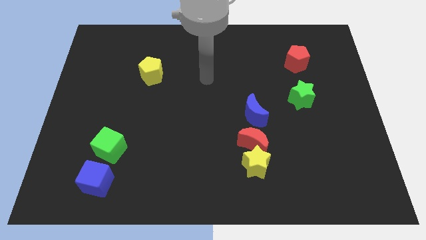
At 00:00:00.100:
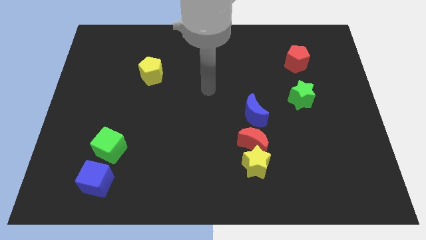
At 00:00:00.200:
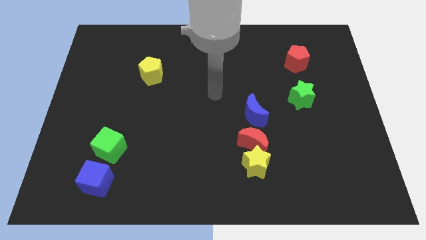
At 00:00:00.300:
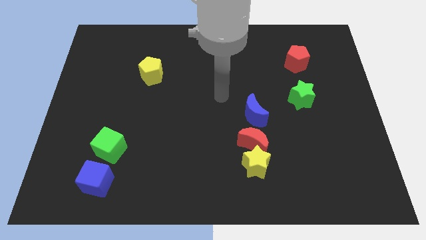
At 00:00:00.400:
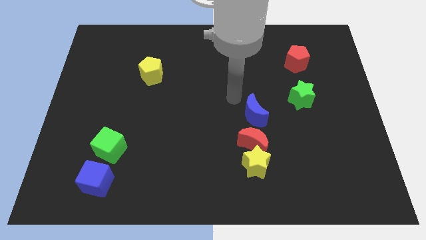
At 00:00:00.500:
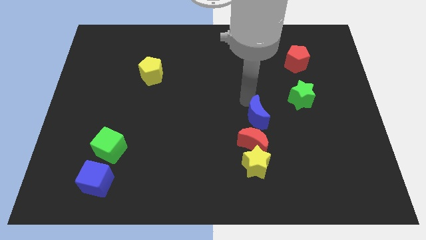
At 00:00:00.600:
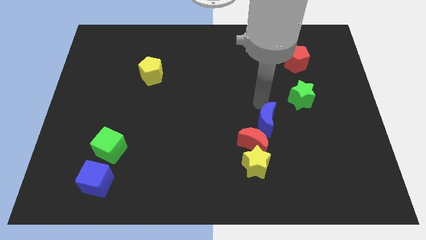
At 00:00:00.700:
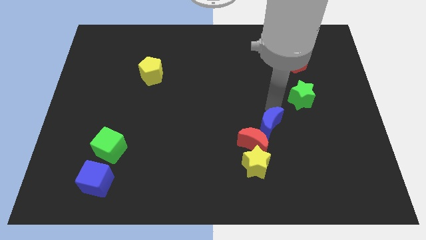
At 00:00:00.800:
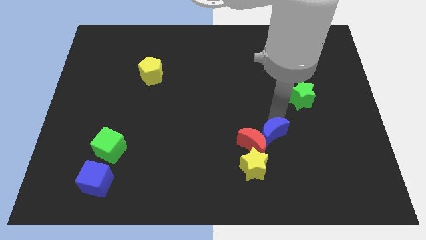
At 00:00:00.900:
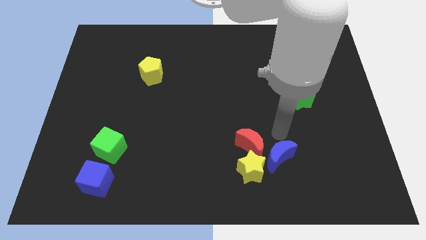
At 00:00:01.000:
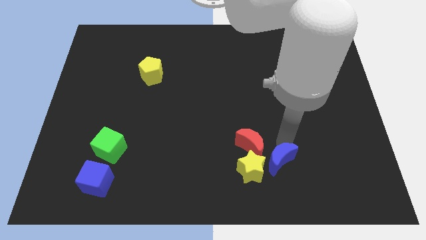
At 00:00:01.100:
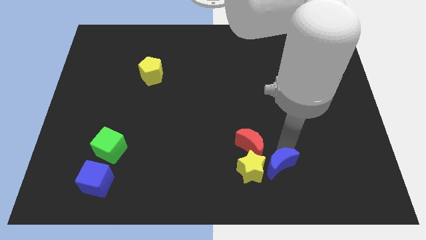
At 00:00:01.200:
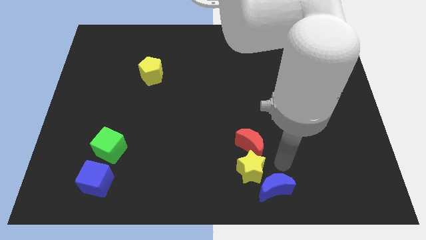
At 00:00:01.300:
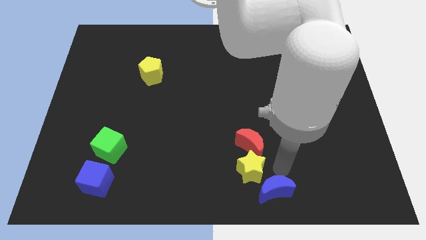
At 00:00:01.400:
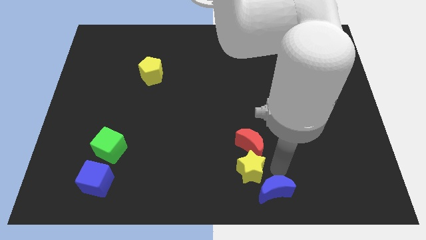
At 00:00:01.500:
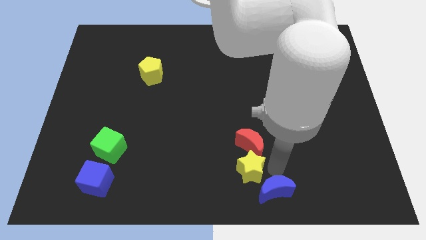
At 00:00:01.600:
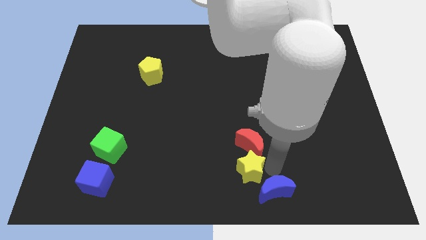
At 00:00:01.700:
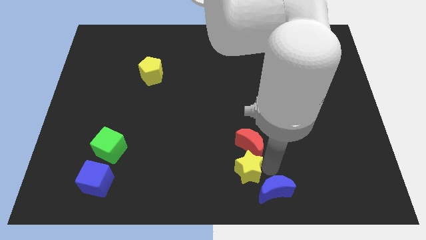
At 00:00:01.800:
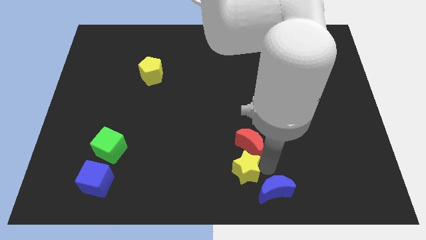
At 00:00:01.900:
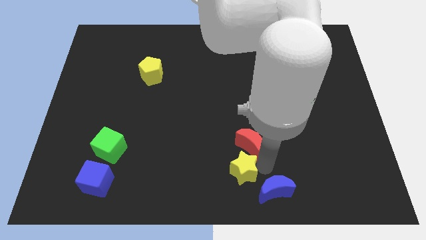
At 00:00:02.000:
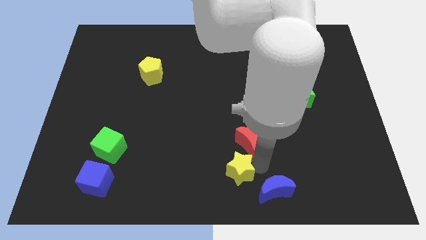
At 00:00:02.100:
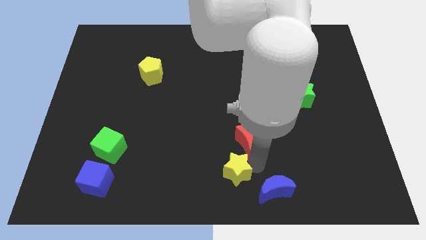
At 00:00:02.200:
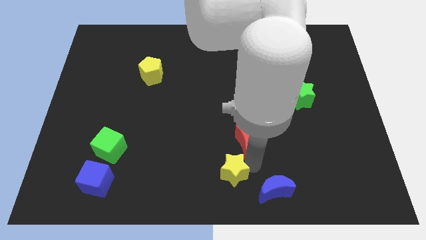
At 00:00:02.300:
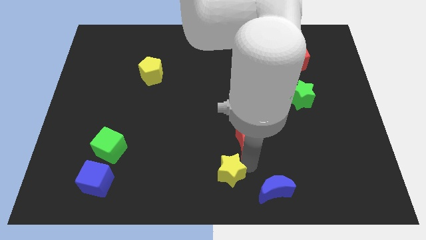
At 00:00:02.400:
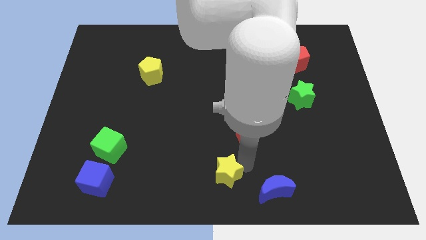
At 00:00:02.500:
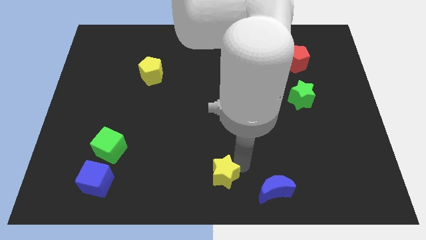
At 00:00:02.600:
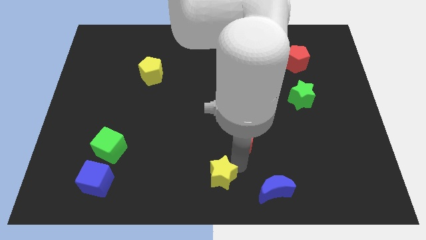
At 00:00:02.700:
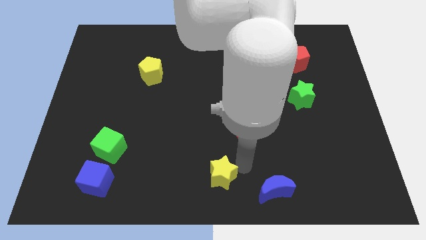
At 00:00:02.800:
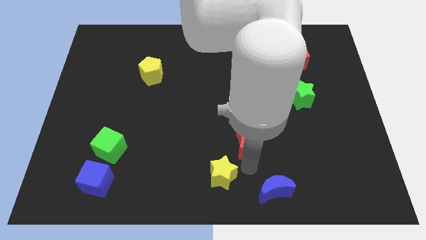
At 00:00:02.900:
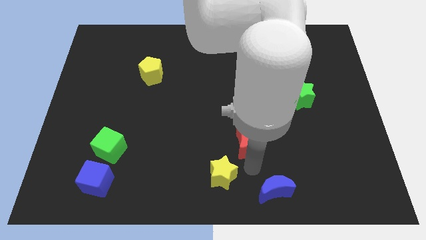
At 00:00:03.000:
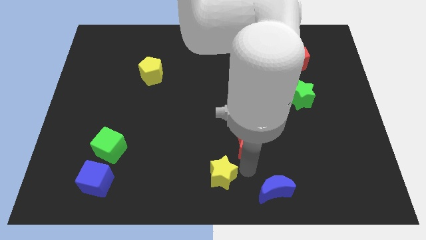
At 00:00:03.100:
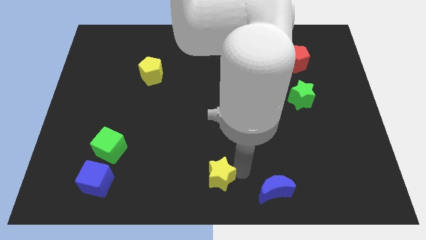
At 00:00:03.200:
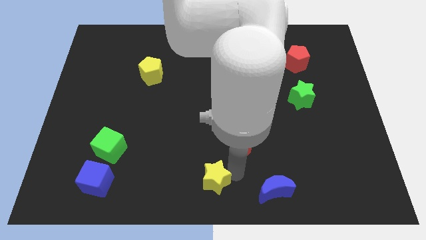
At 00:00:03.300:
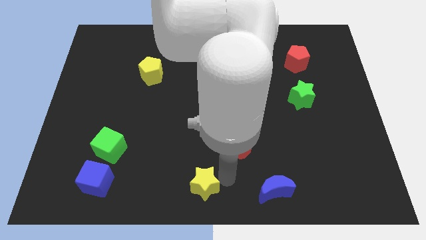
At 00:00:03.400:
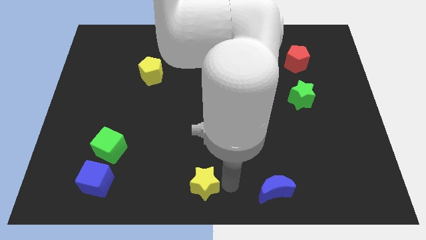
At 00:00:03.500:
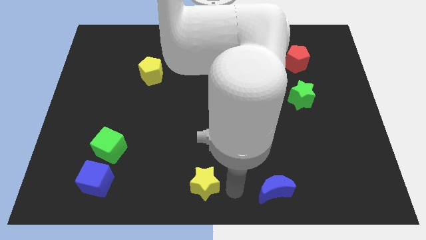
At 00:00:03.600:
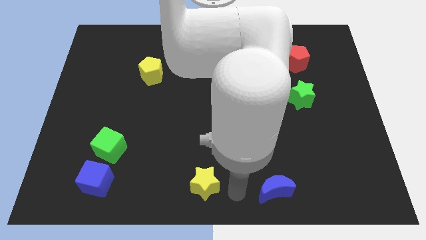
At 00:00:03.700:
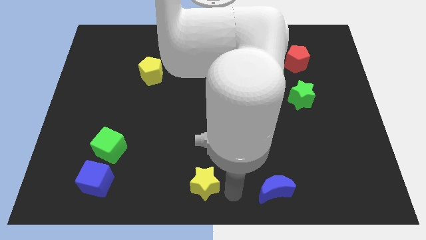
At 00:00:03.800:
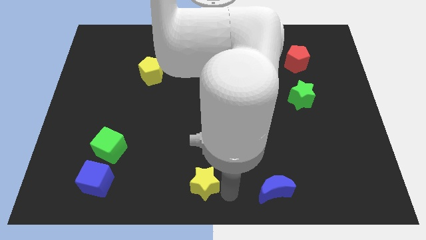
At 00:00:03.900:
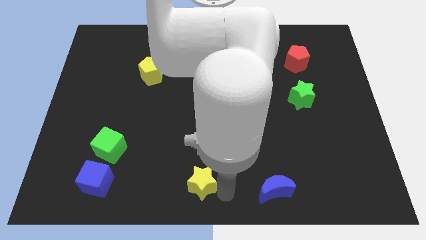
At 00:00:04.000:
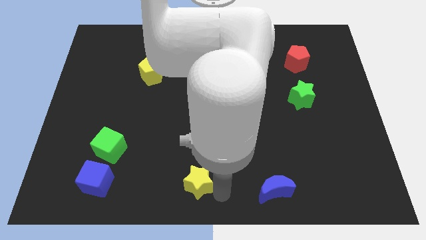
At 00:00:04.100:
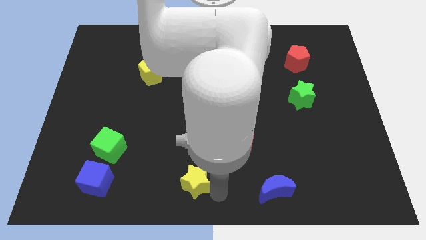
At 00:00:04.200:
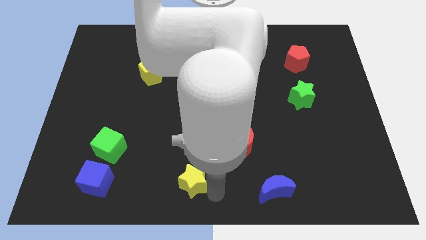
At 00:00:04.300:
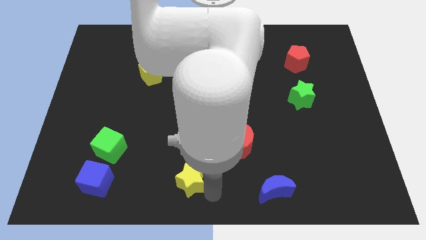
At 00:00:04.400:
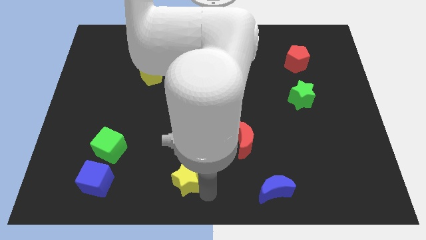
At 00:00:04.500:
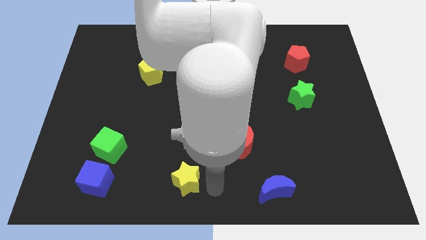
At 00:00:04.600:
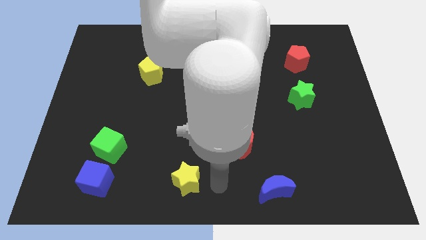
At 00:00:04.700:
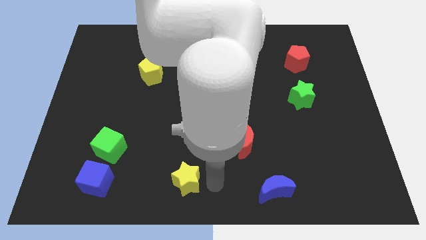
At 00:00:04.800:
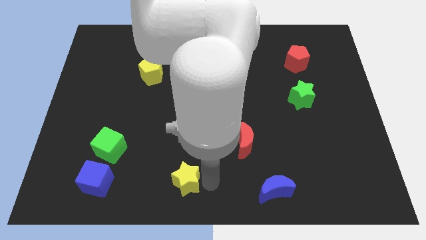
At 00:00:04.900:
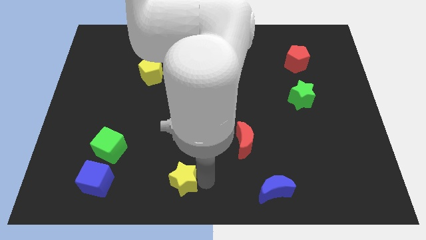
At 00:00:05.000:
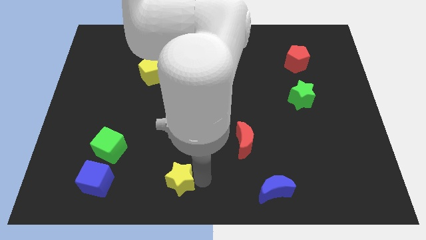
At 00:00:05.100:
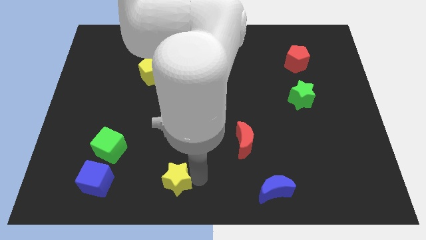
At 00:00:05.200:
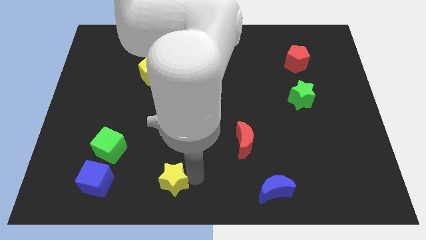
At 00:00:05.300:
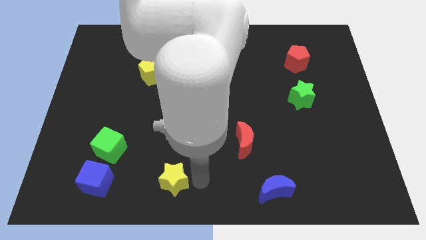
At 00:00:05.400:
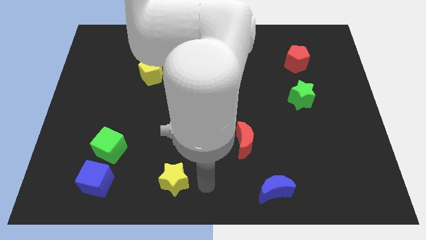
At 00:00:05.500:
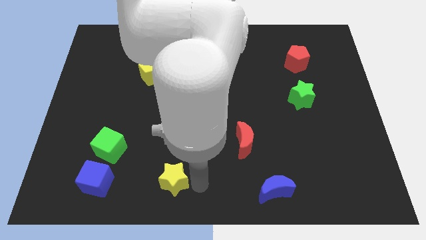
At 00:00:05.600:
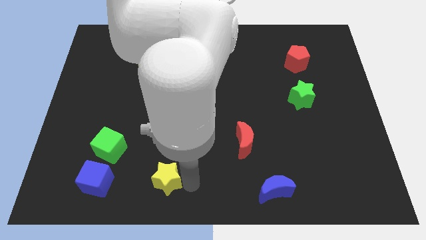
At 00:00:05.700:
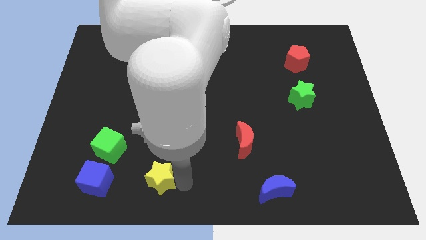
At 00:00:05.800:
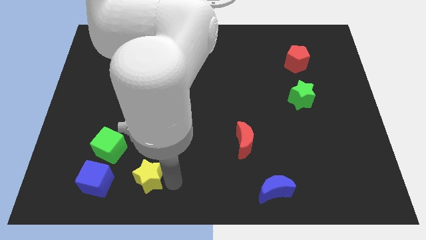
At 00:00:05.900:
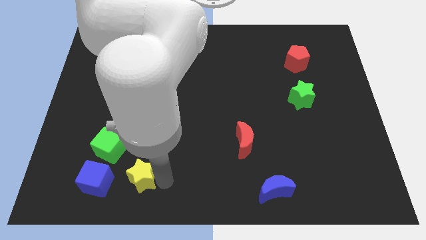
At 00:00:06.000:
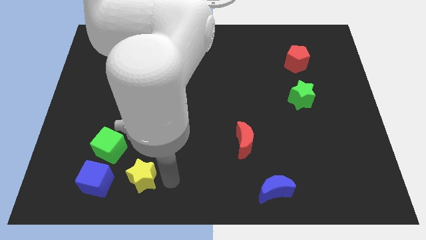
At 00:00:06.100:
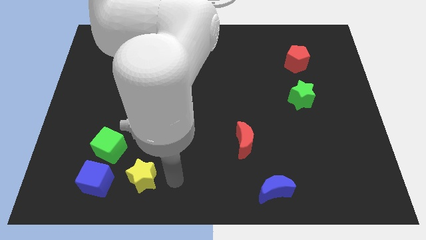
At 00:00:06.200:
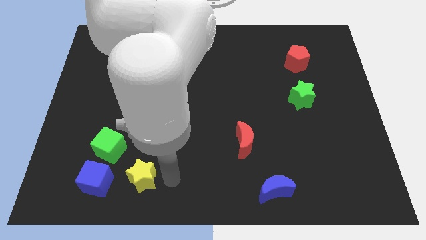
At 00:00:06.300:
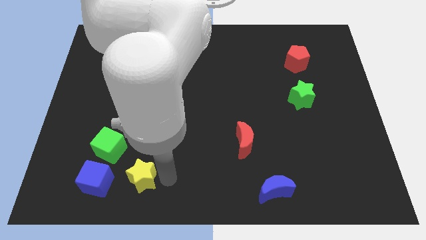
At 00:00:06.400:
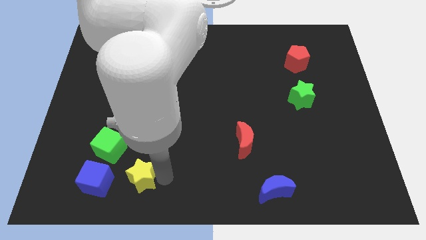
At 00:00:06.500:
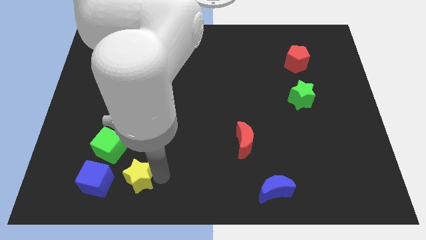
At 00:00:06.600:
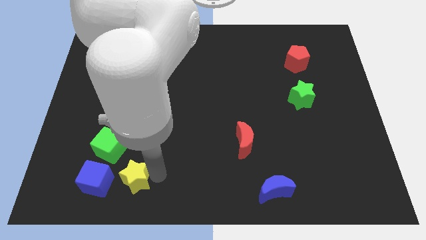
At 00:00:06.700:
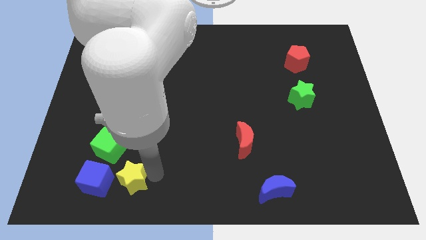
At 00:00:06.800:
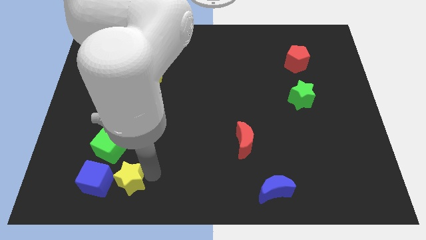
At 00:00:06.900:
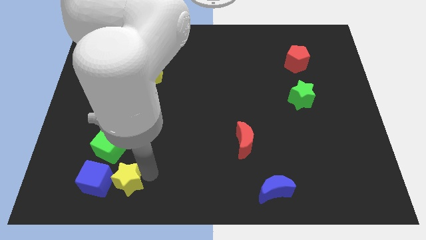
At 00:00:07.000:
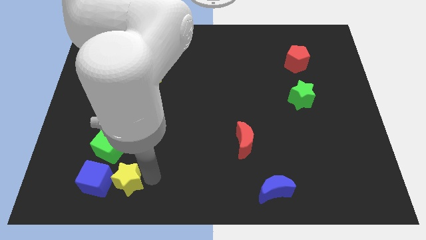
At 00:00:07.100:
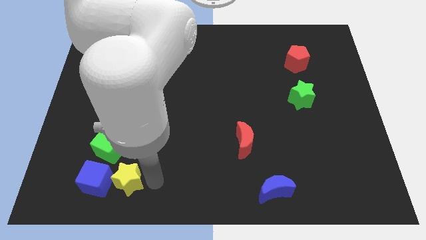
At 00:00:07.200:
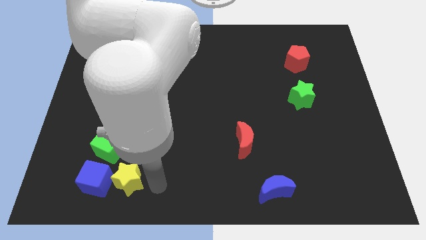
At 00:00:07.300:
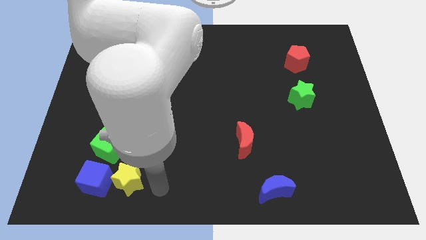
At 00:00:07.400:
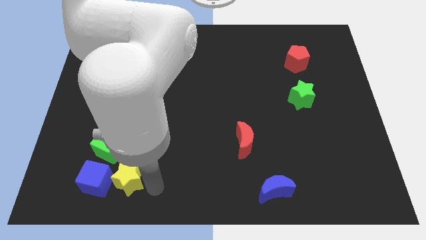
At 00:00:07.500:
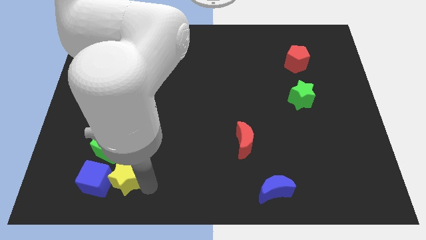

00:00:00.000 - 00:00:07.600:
slide the yellow star next to the blue cube
